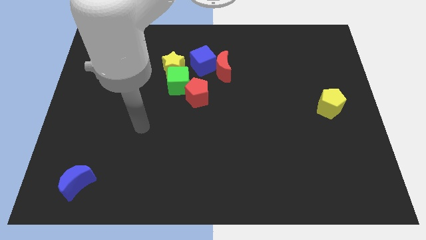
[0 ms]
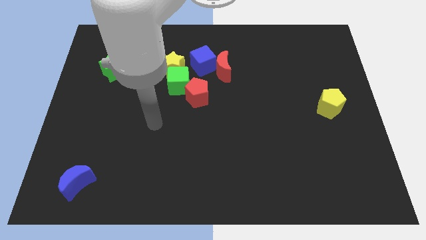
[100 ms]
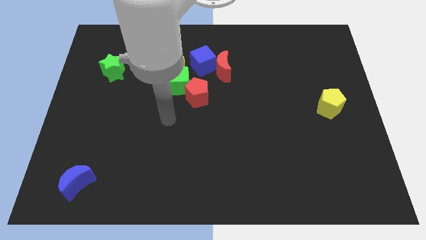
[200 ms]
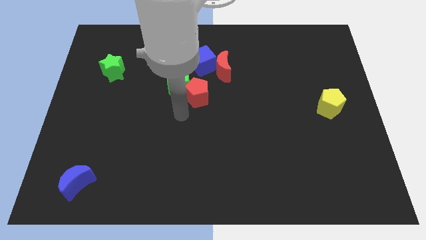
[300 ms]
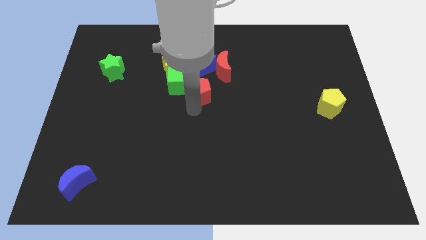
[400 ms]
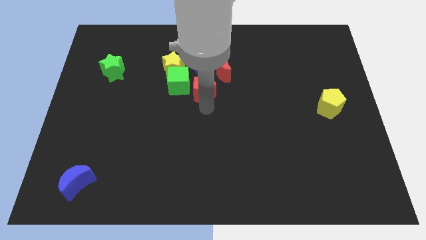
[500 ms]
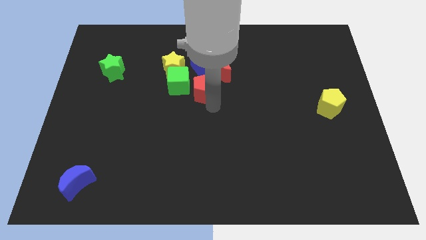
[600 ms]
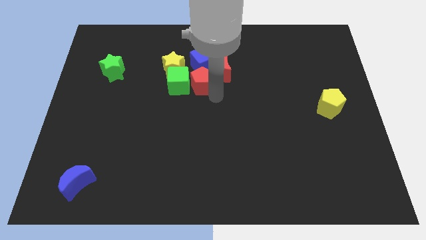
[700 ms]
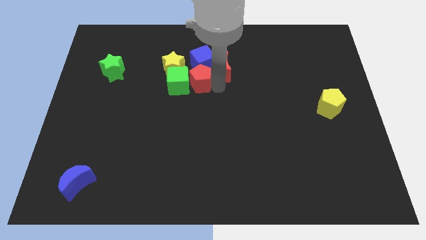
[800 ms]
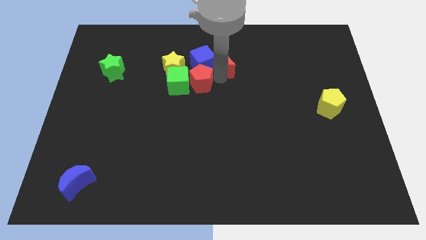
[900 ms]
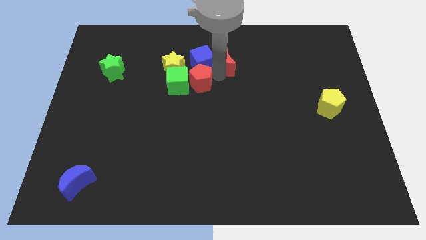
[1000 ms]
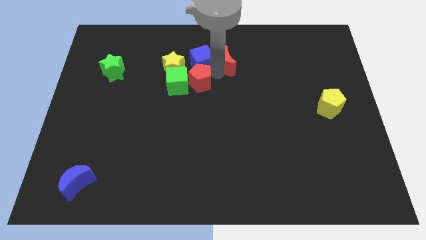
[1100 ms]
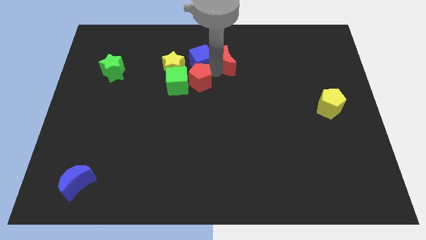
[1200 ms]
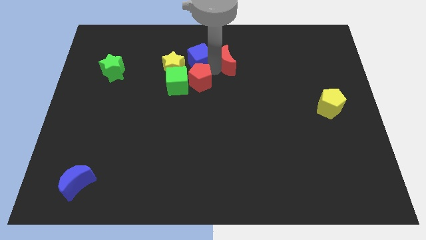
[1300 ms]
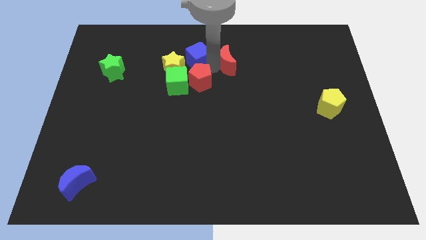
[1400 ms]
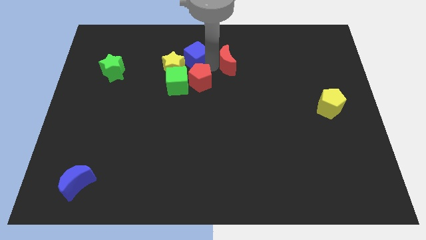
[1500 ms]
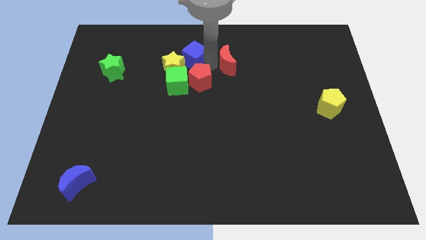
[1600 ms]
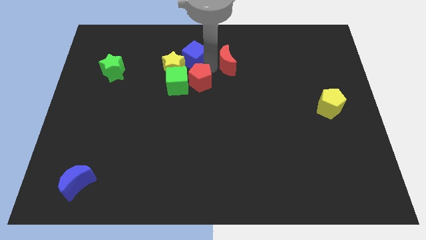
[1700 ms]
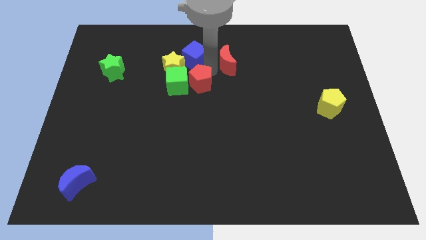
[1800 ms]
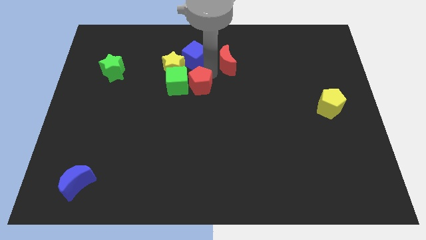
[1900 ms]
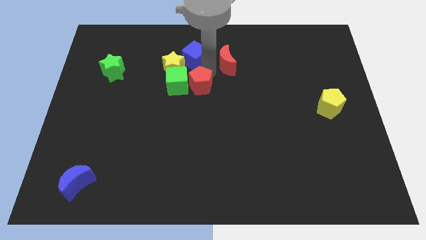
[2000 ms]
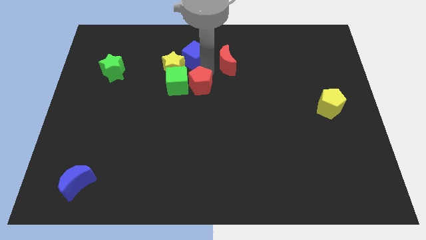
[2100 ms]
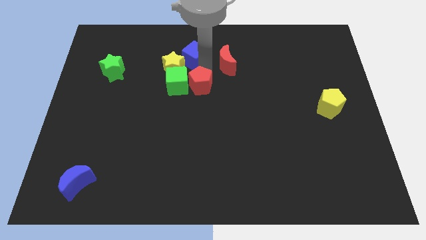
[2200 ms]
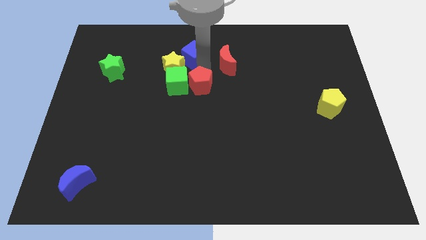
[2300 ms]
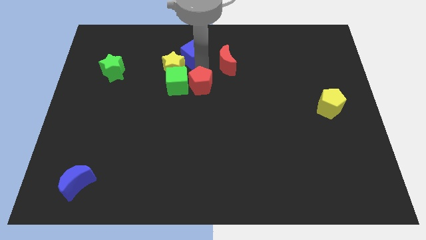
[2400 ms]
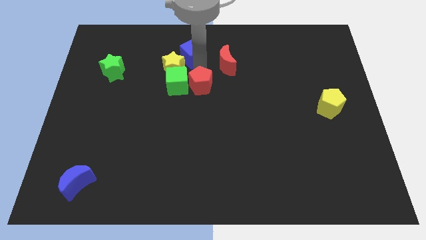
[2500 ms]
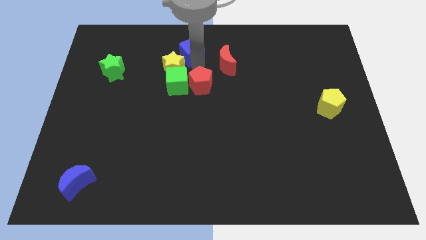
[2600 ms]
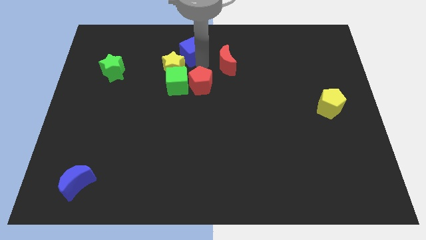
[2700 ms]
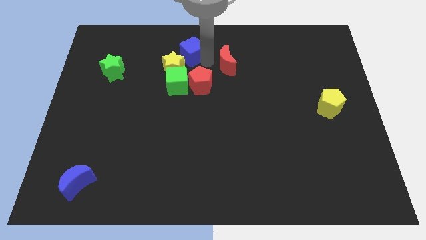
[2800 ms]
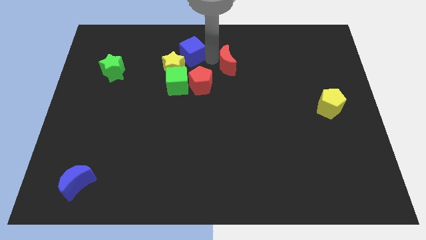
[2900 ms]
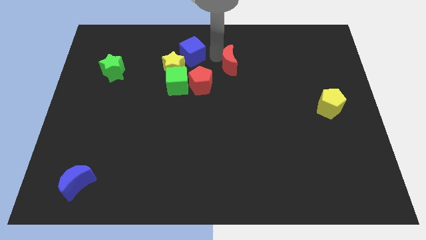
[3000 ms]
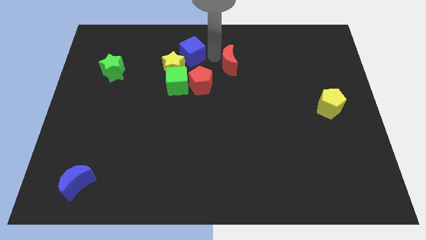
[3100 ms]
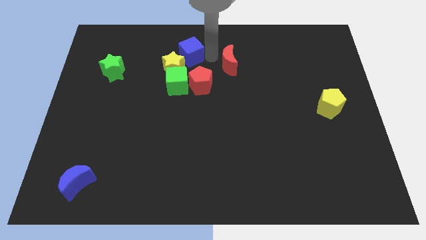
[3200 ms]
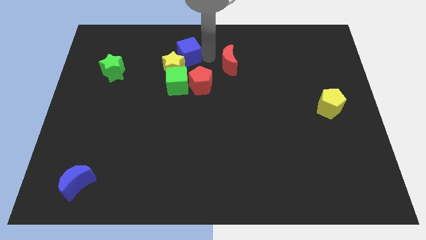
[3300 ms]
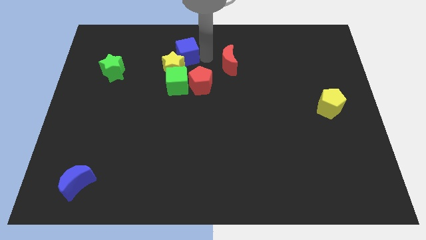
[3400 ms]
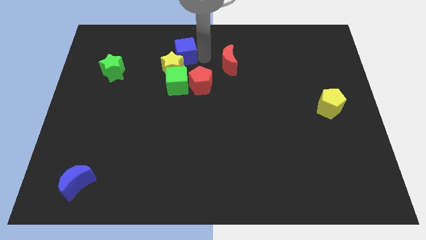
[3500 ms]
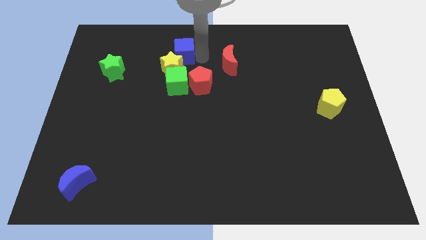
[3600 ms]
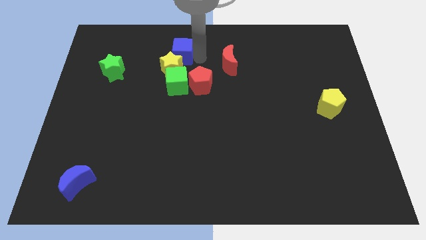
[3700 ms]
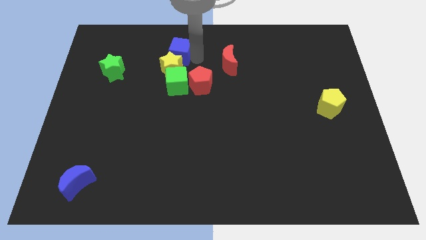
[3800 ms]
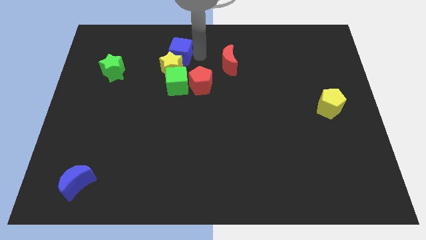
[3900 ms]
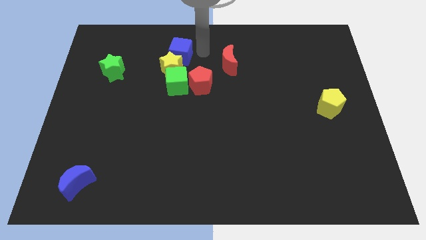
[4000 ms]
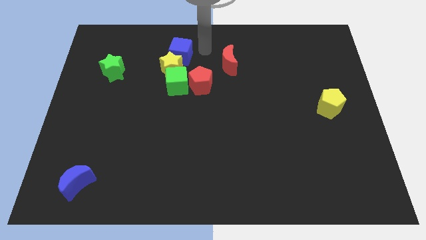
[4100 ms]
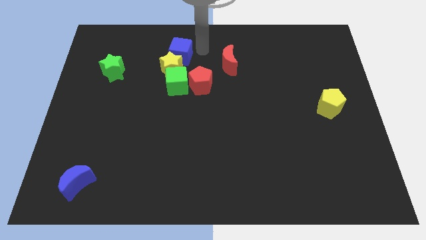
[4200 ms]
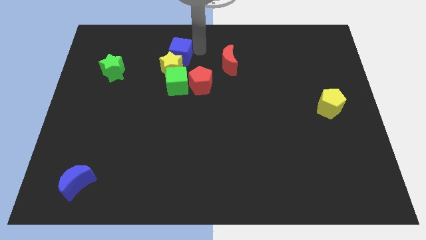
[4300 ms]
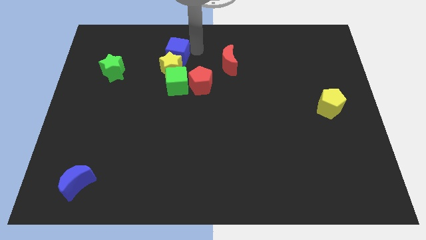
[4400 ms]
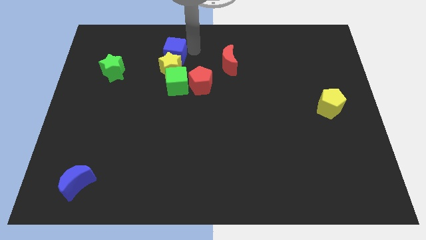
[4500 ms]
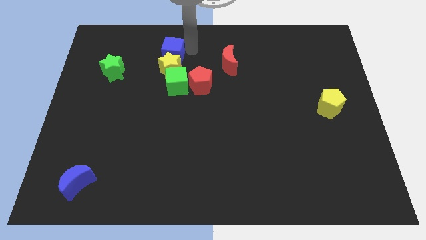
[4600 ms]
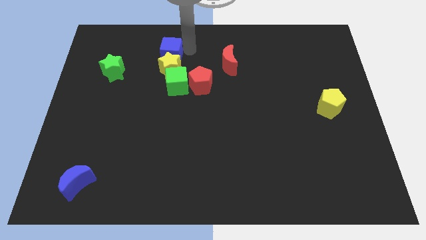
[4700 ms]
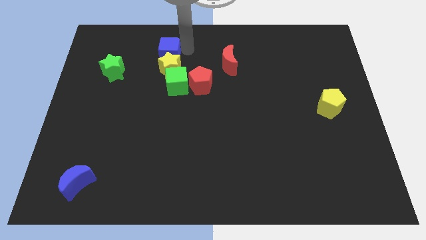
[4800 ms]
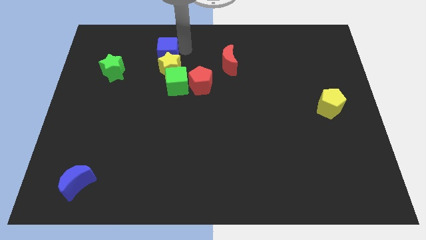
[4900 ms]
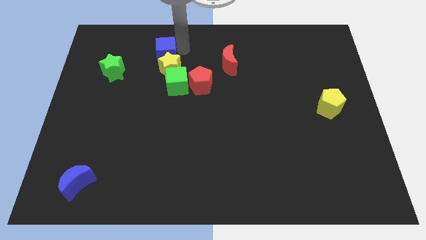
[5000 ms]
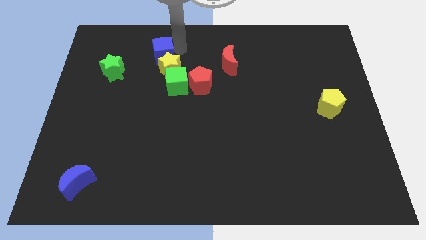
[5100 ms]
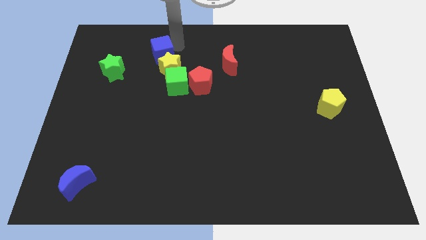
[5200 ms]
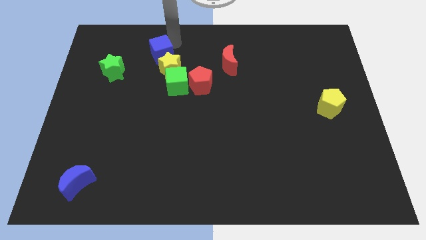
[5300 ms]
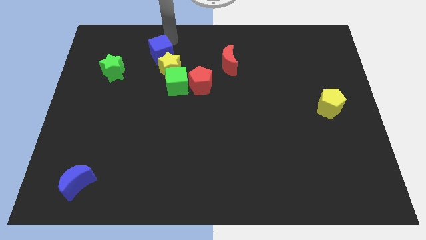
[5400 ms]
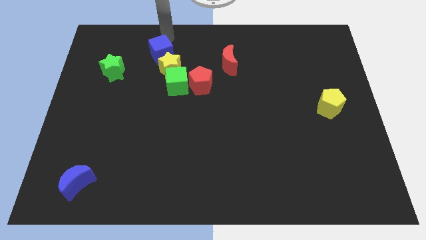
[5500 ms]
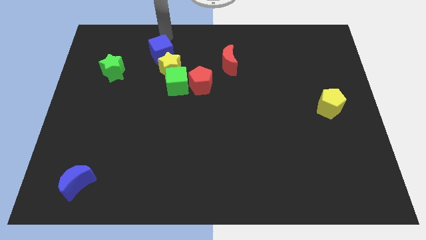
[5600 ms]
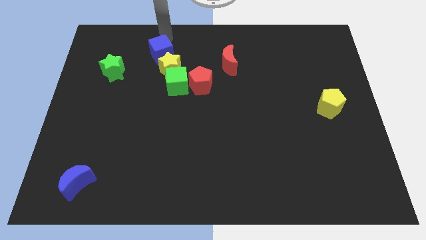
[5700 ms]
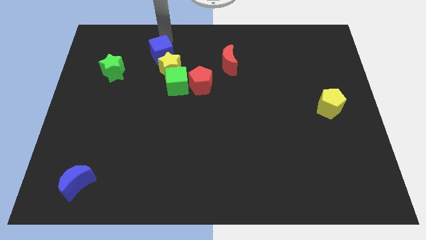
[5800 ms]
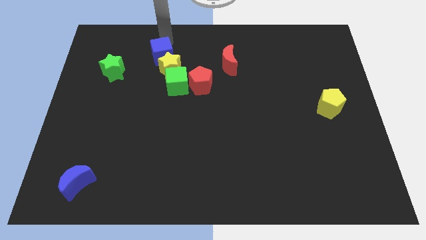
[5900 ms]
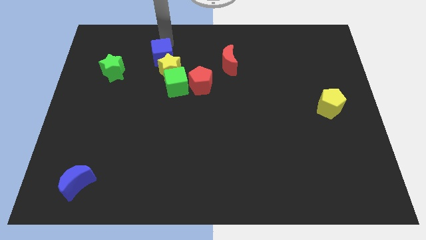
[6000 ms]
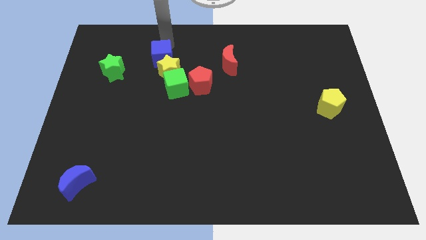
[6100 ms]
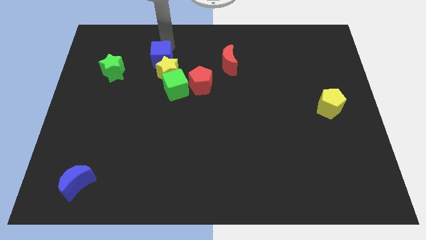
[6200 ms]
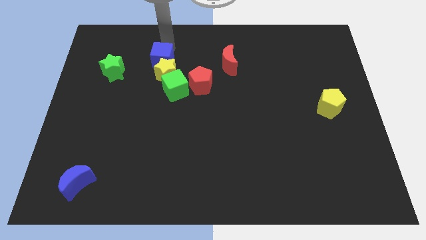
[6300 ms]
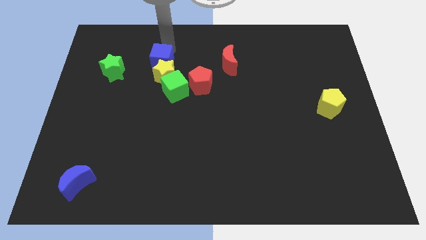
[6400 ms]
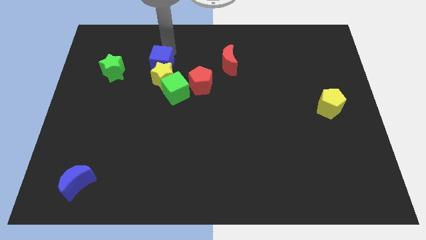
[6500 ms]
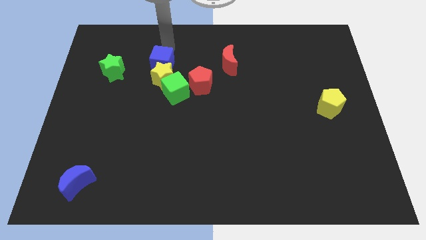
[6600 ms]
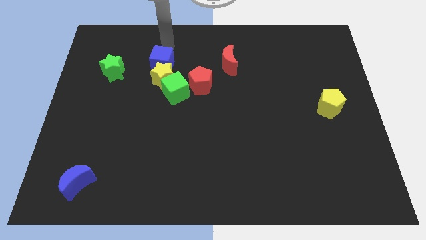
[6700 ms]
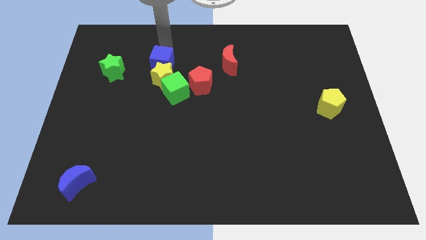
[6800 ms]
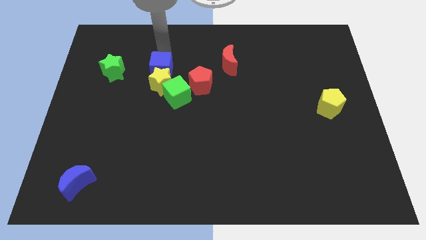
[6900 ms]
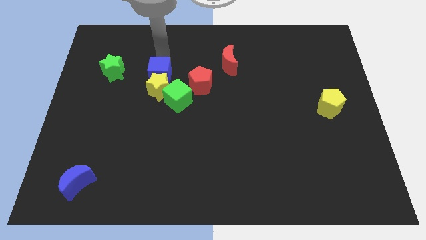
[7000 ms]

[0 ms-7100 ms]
move the blue cube left of the red pentagon

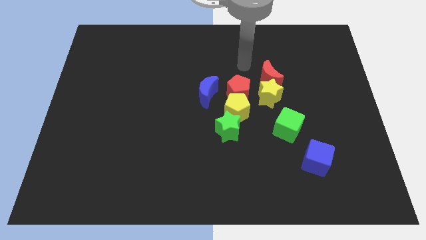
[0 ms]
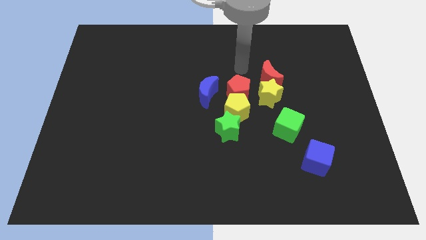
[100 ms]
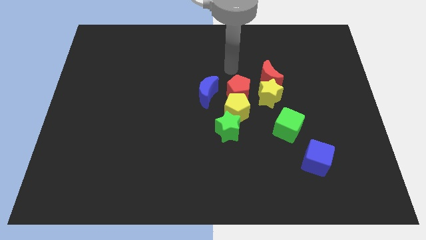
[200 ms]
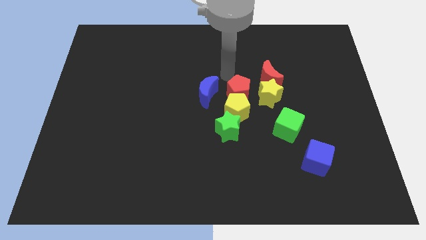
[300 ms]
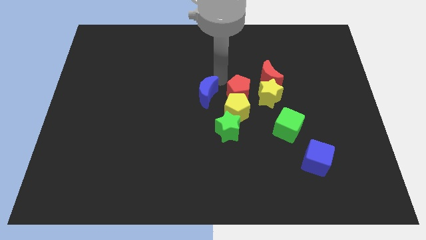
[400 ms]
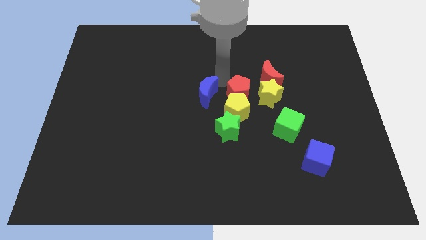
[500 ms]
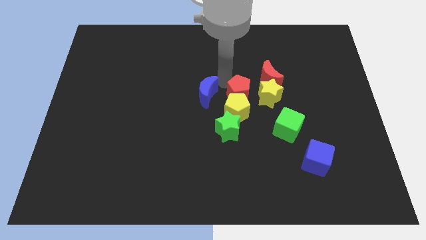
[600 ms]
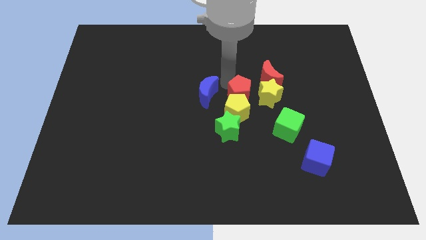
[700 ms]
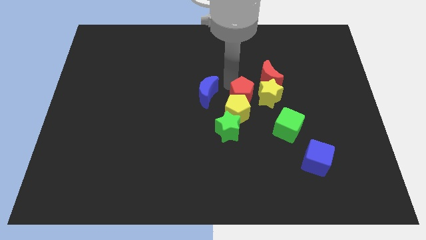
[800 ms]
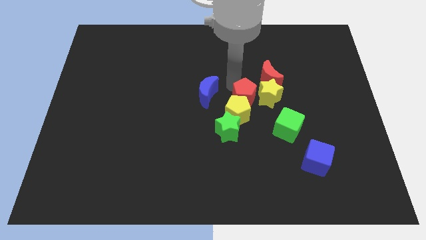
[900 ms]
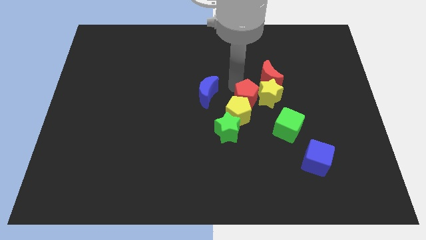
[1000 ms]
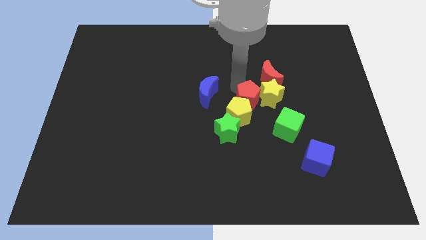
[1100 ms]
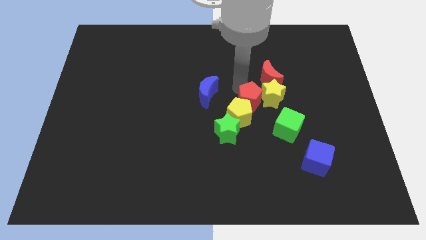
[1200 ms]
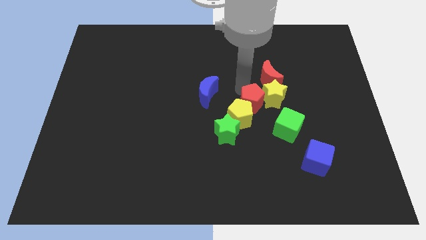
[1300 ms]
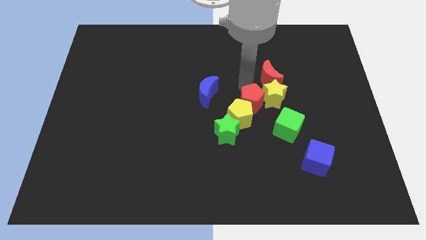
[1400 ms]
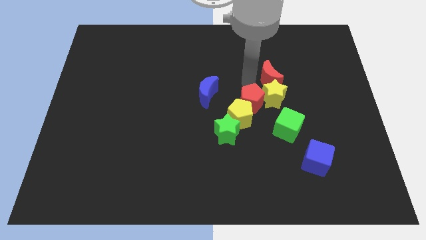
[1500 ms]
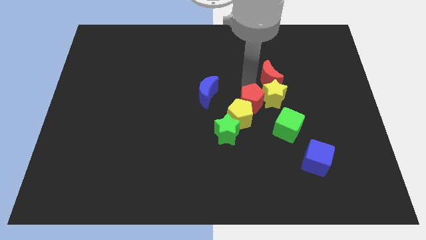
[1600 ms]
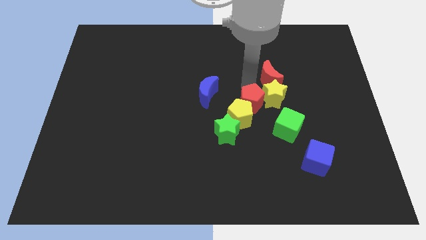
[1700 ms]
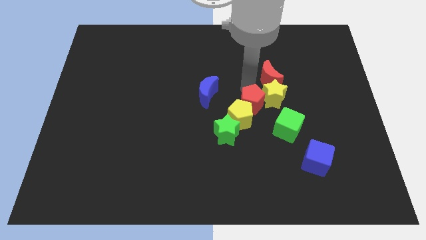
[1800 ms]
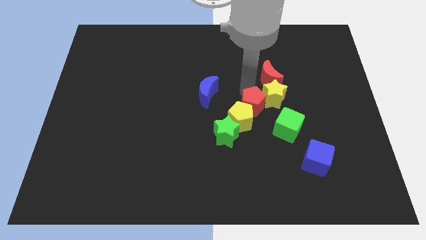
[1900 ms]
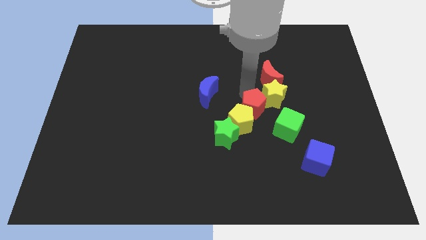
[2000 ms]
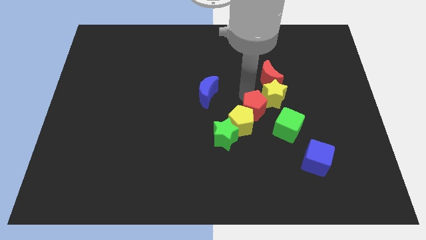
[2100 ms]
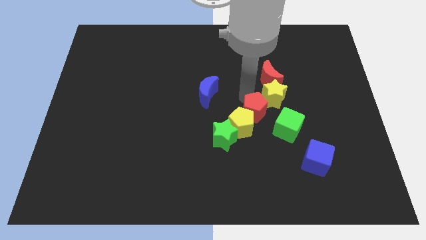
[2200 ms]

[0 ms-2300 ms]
put the red pentagon to the bottom of the yellow star
